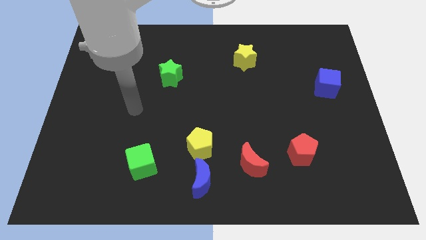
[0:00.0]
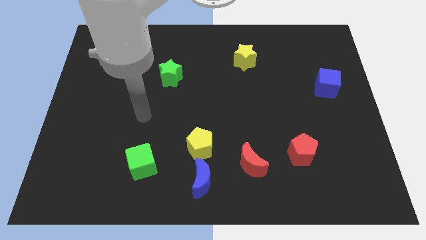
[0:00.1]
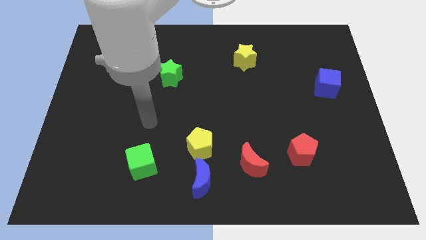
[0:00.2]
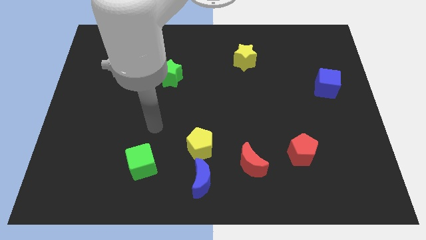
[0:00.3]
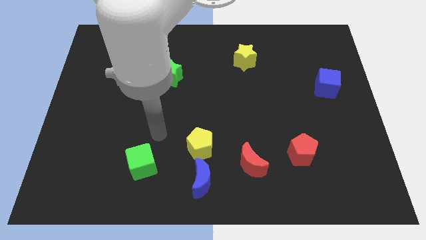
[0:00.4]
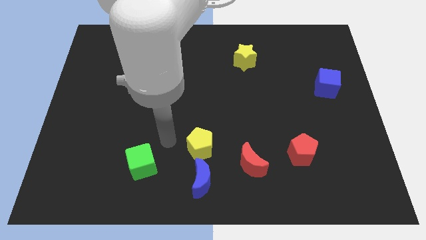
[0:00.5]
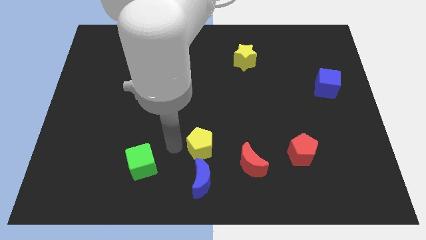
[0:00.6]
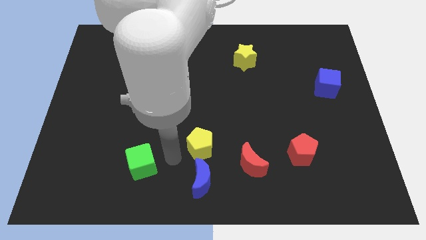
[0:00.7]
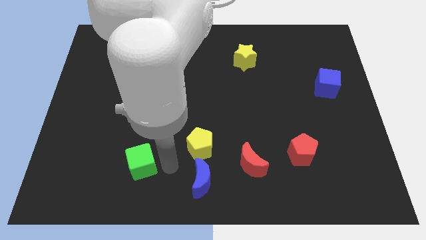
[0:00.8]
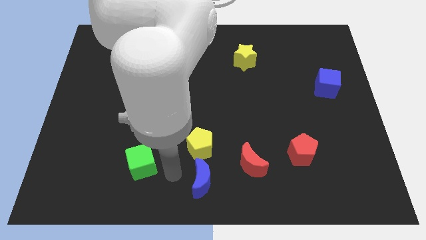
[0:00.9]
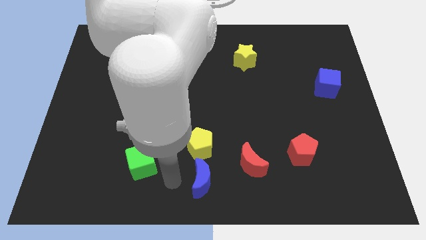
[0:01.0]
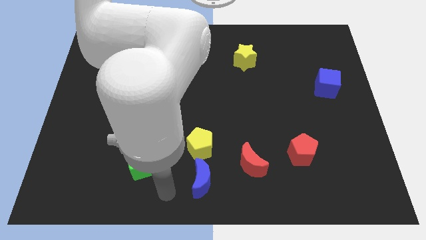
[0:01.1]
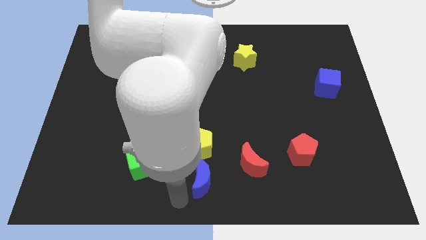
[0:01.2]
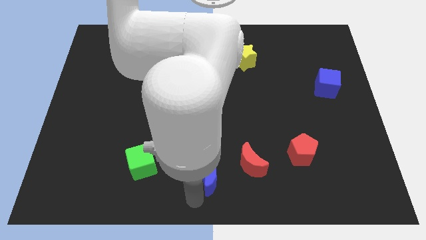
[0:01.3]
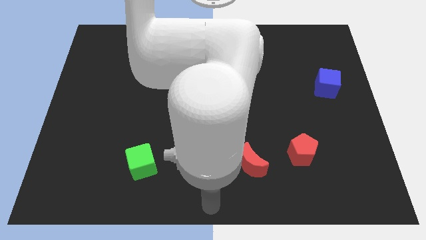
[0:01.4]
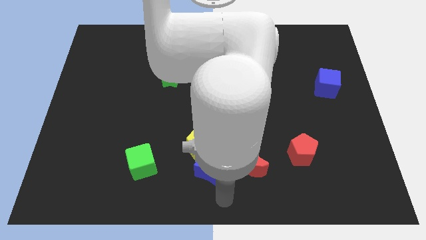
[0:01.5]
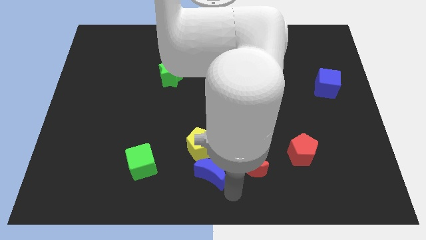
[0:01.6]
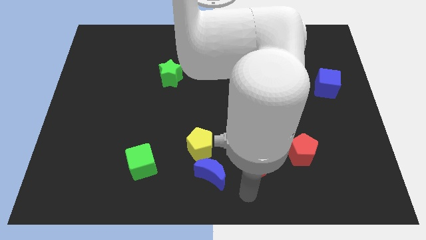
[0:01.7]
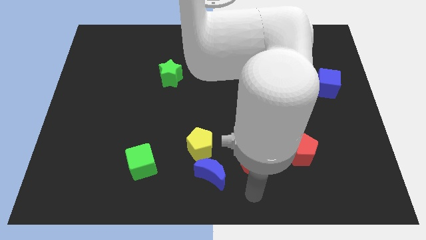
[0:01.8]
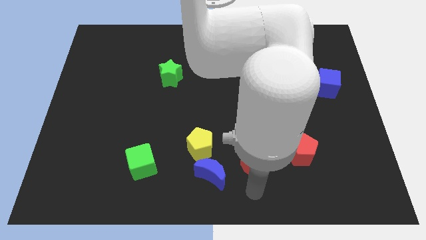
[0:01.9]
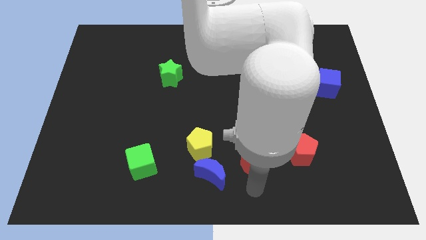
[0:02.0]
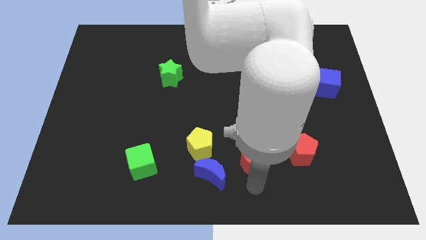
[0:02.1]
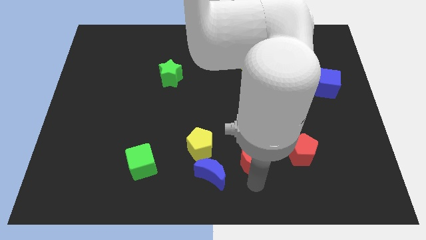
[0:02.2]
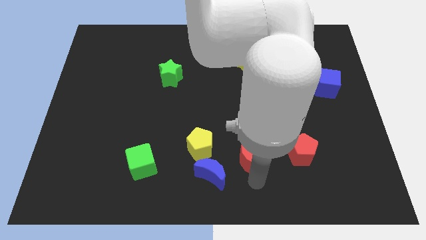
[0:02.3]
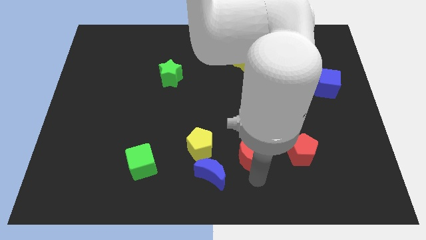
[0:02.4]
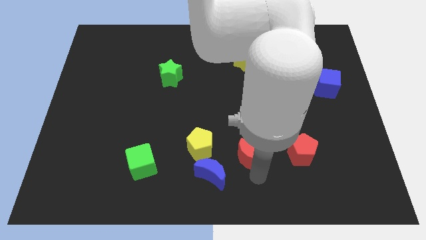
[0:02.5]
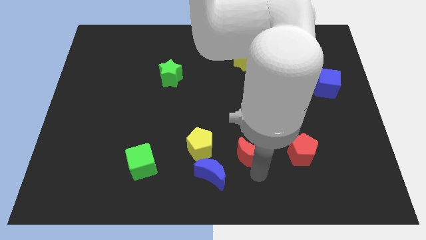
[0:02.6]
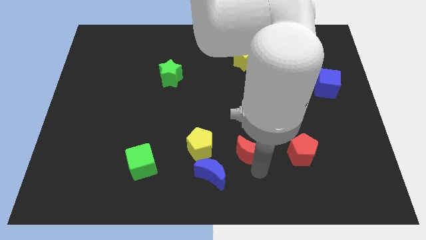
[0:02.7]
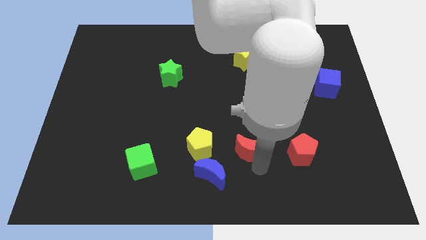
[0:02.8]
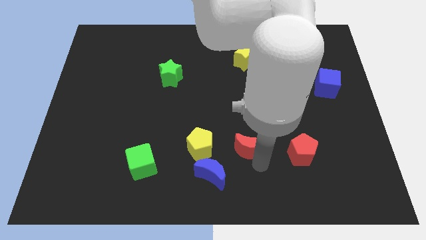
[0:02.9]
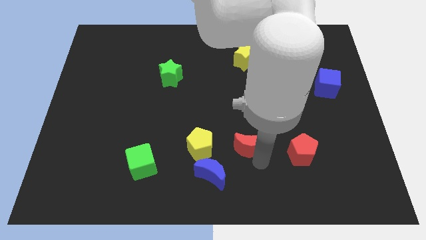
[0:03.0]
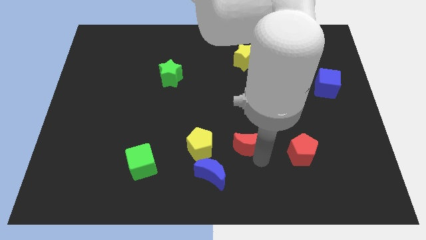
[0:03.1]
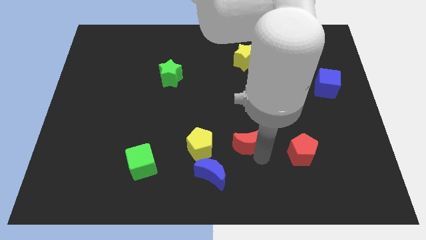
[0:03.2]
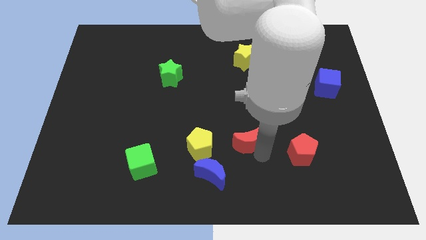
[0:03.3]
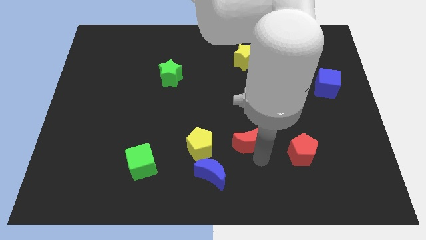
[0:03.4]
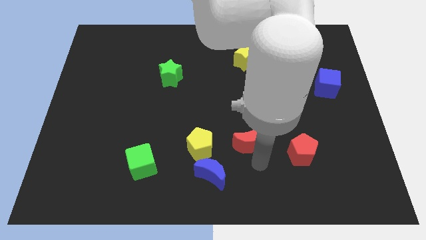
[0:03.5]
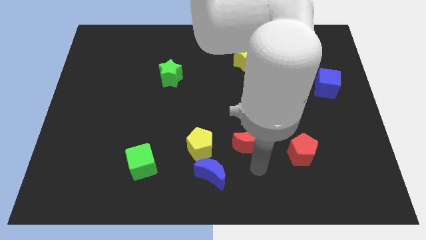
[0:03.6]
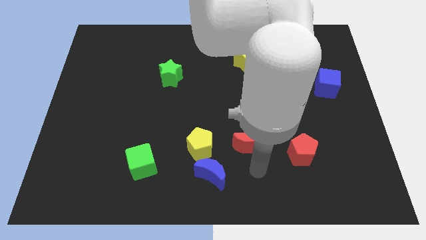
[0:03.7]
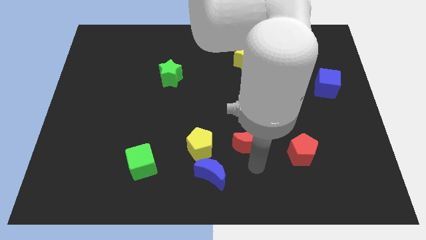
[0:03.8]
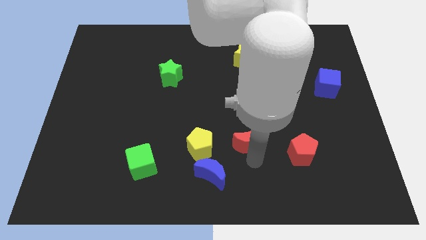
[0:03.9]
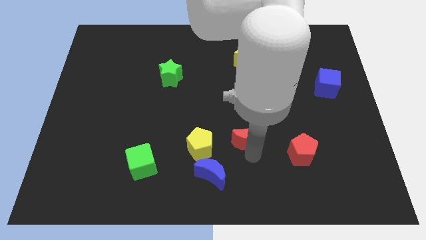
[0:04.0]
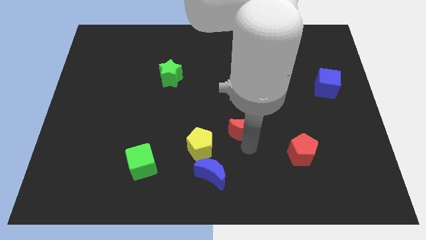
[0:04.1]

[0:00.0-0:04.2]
push the red moon a bit upwards

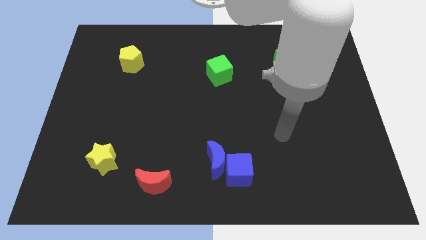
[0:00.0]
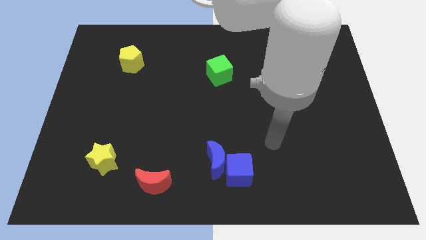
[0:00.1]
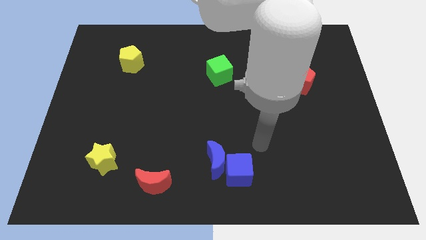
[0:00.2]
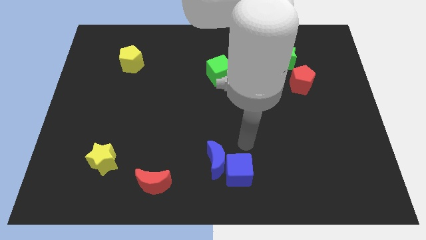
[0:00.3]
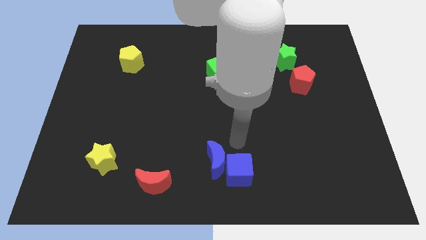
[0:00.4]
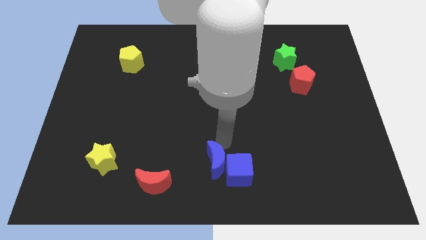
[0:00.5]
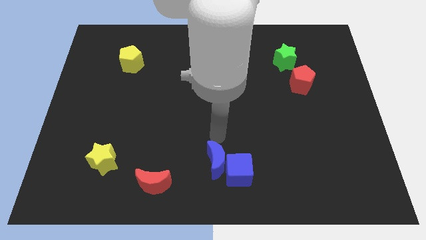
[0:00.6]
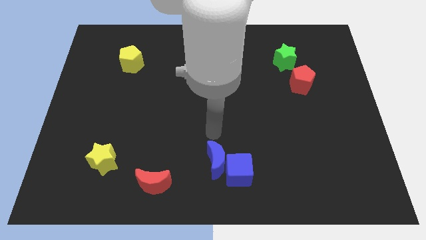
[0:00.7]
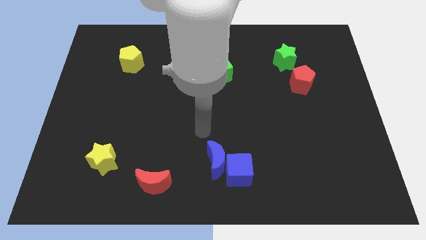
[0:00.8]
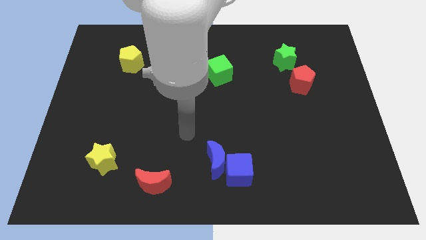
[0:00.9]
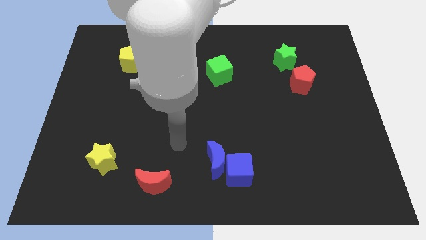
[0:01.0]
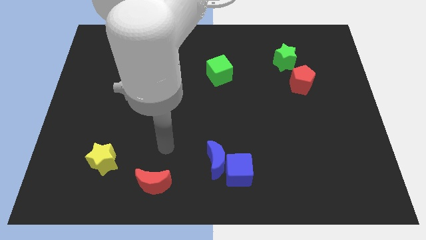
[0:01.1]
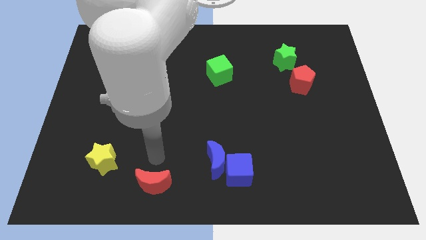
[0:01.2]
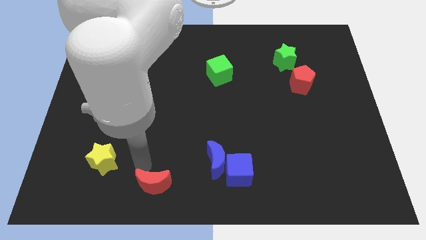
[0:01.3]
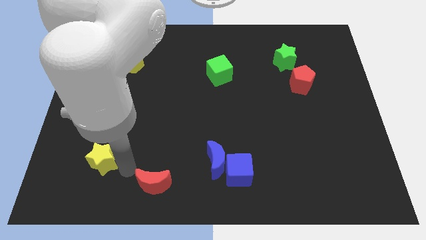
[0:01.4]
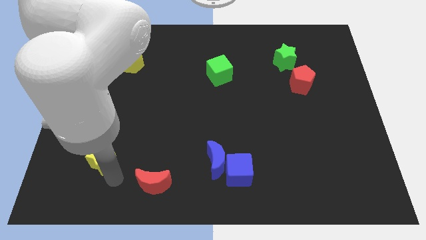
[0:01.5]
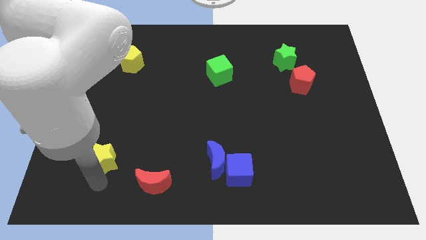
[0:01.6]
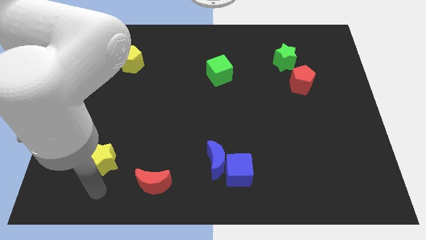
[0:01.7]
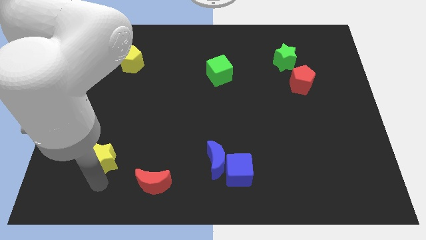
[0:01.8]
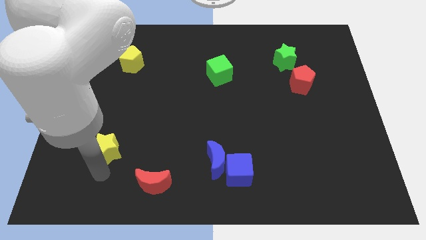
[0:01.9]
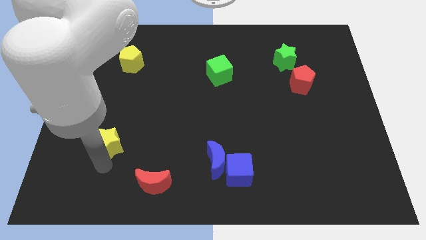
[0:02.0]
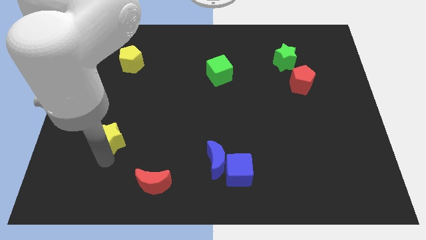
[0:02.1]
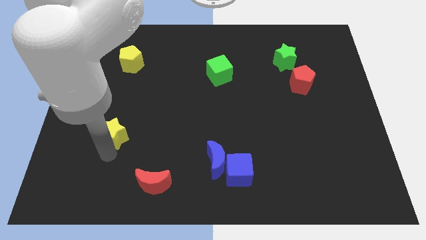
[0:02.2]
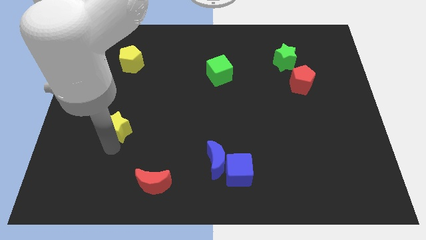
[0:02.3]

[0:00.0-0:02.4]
slightly push the yellow star up

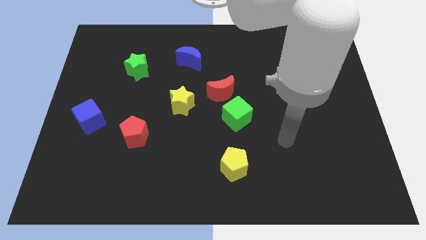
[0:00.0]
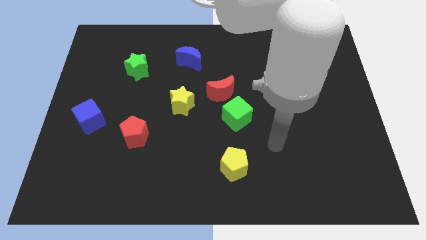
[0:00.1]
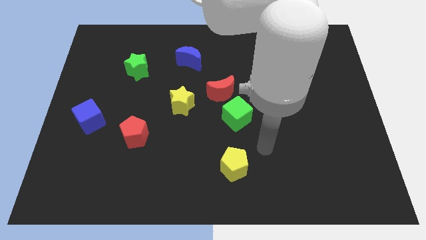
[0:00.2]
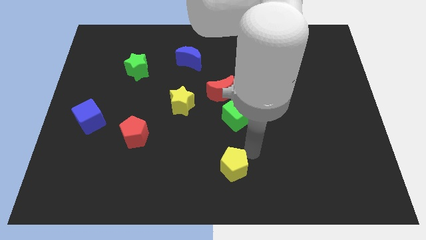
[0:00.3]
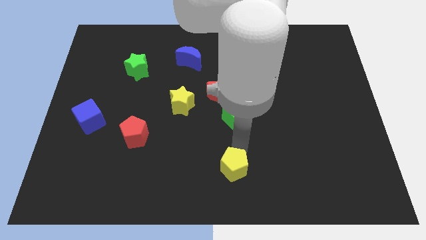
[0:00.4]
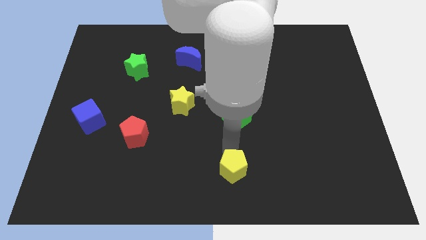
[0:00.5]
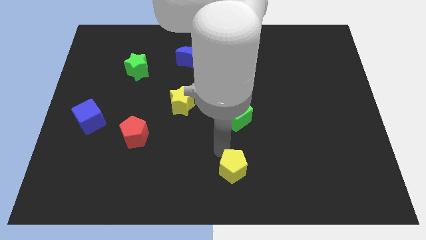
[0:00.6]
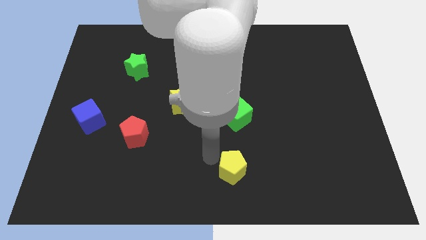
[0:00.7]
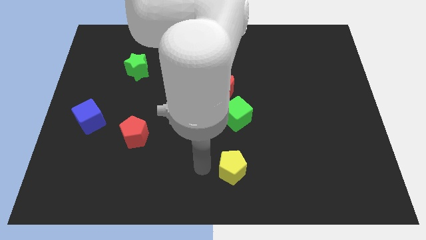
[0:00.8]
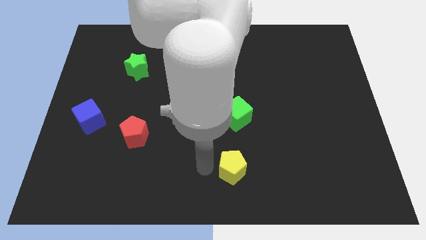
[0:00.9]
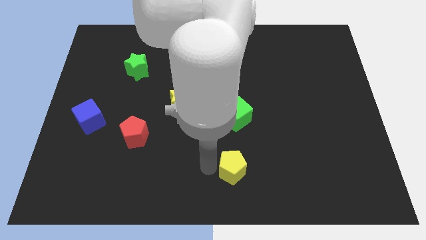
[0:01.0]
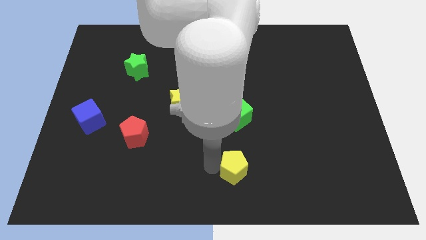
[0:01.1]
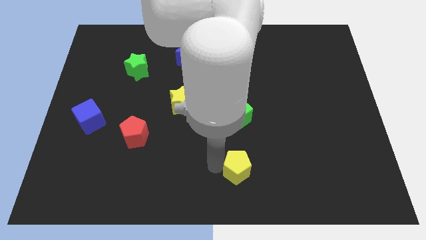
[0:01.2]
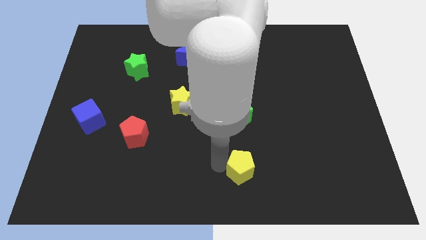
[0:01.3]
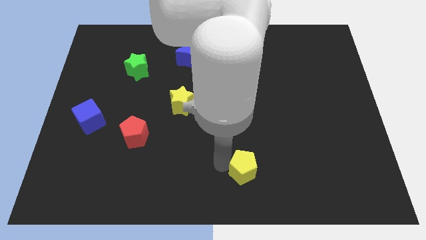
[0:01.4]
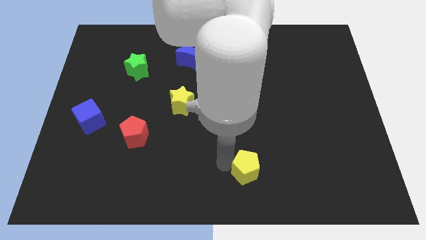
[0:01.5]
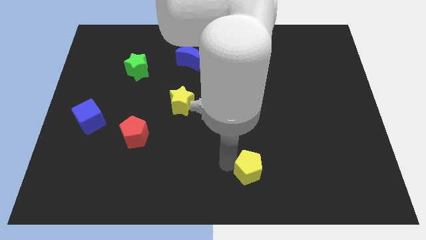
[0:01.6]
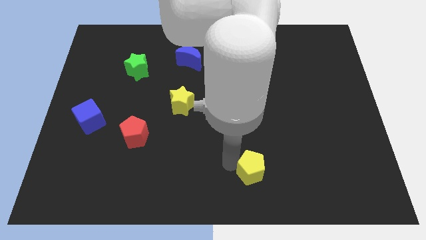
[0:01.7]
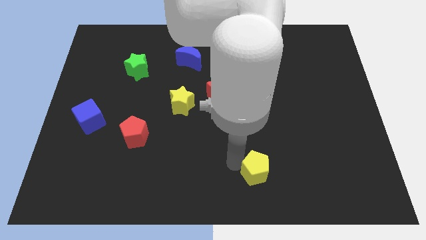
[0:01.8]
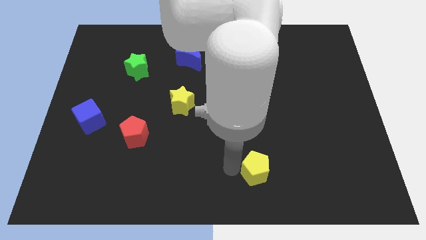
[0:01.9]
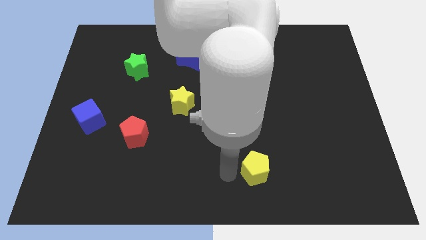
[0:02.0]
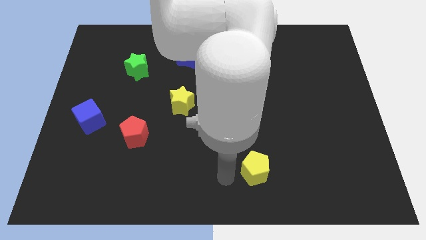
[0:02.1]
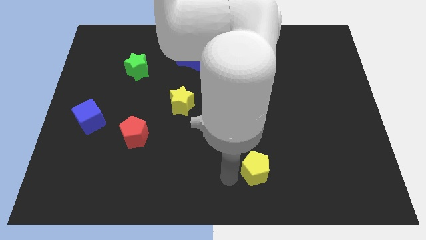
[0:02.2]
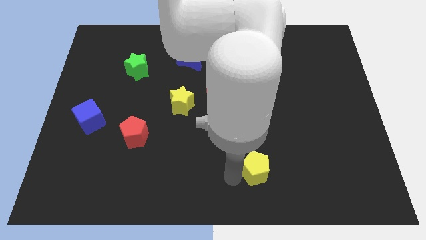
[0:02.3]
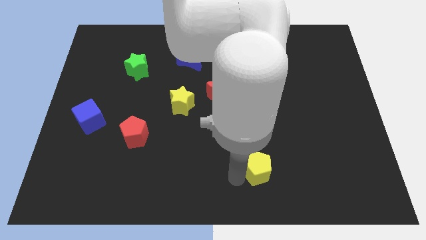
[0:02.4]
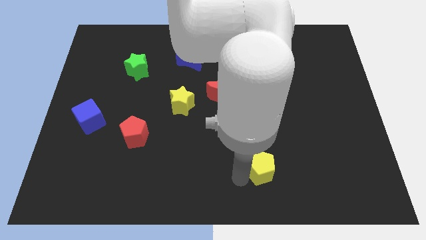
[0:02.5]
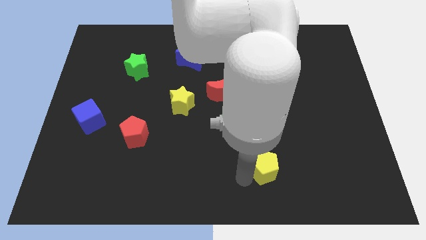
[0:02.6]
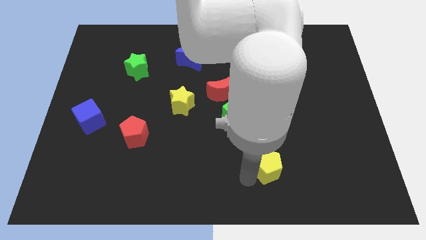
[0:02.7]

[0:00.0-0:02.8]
push the yellow pentagon a little right
